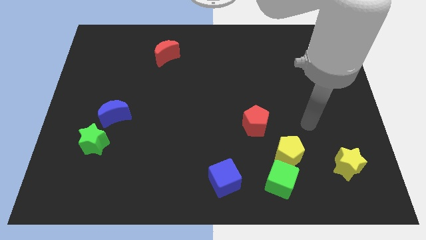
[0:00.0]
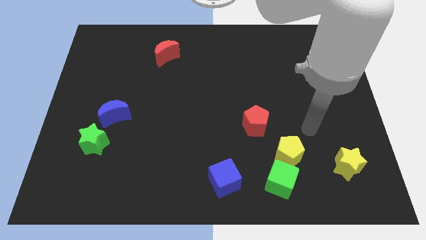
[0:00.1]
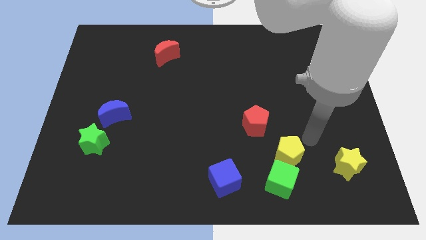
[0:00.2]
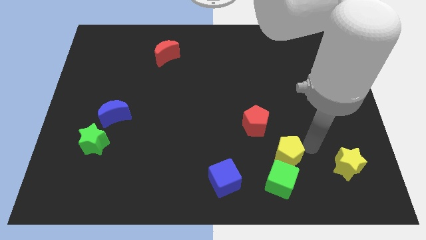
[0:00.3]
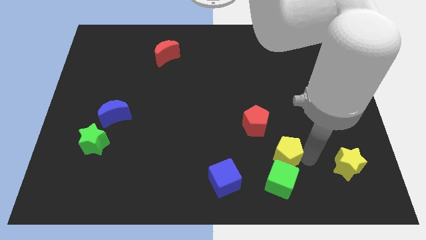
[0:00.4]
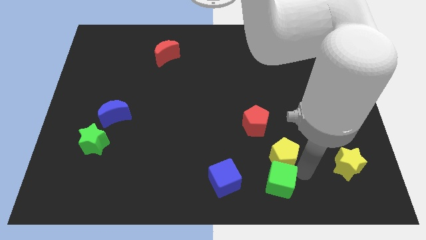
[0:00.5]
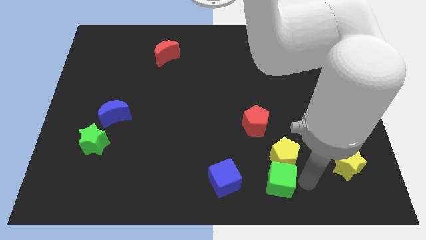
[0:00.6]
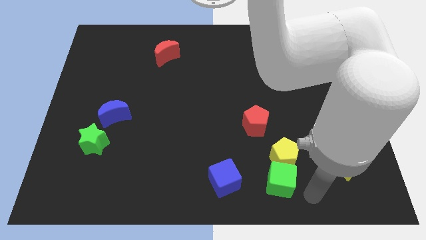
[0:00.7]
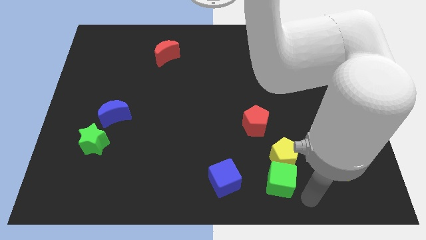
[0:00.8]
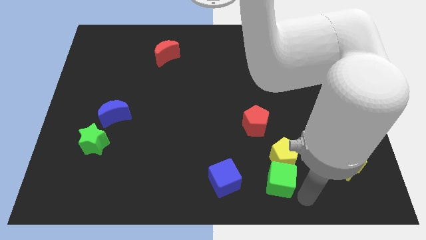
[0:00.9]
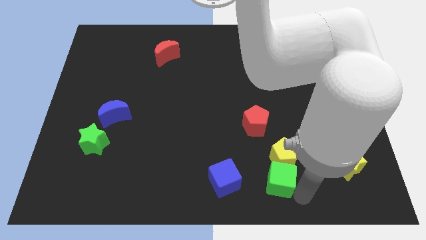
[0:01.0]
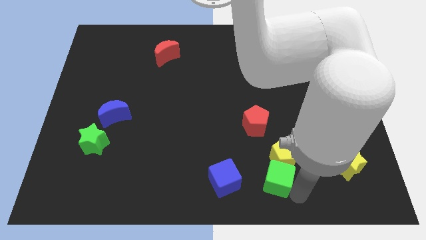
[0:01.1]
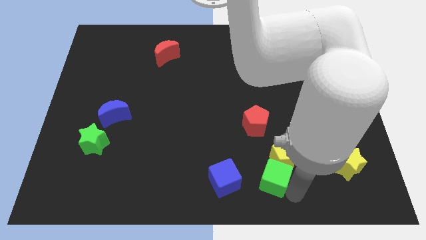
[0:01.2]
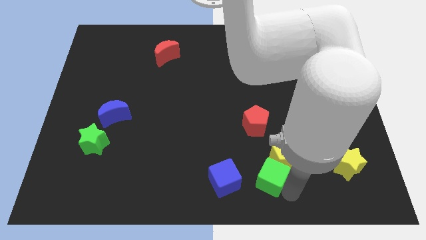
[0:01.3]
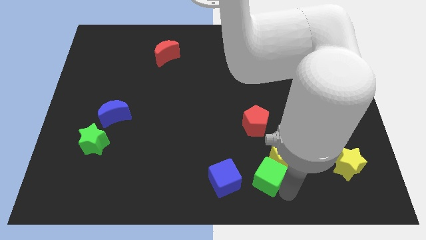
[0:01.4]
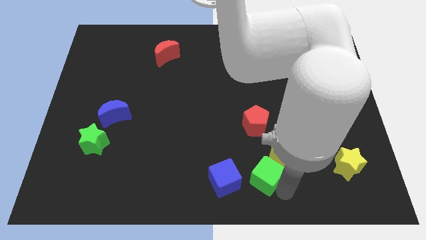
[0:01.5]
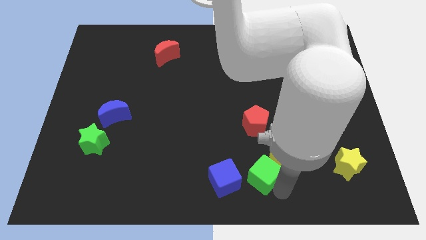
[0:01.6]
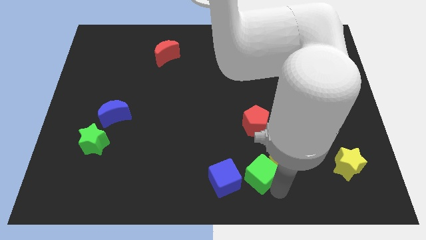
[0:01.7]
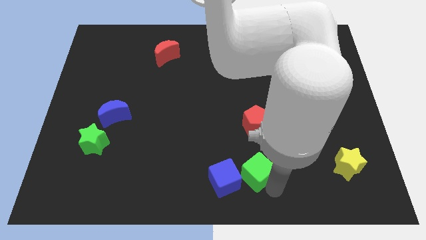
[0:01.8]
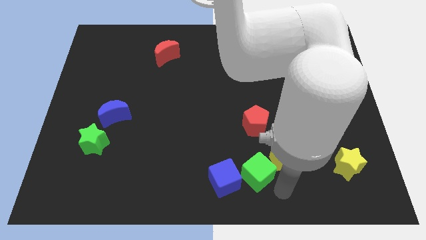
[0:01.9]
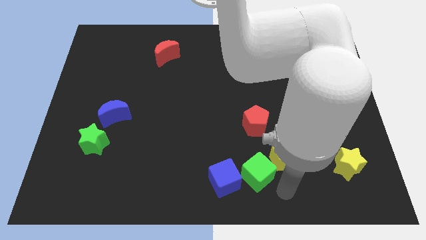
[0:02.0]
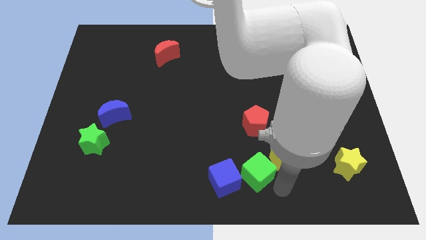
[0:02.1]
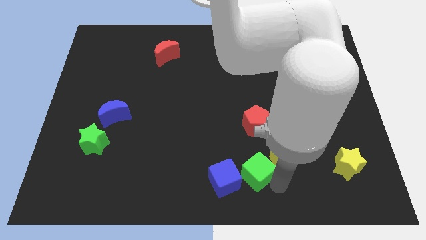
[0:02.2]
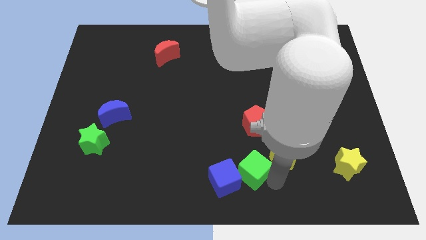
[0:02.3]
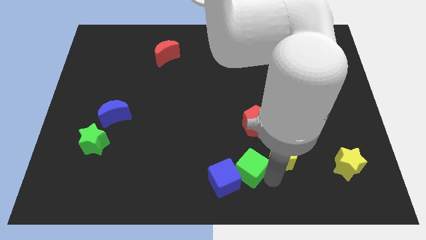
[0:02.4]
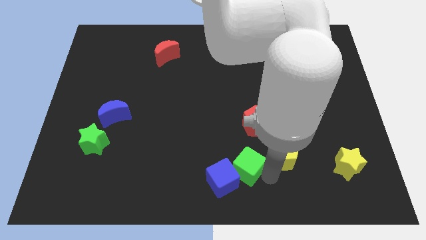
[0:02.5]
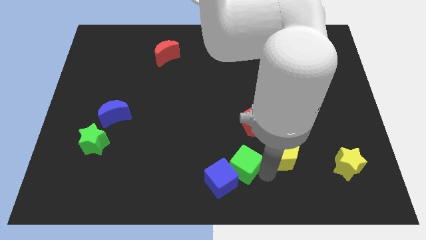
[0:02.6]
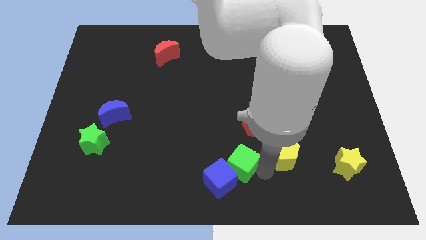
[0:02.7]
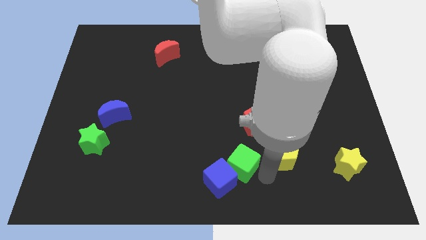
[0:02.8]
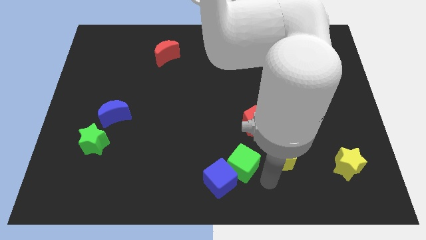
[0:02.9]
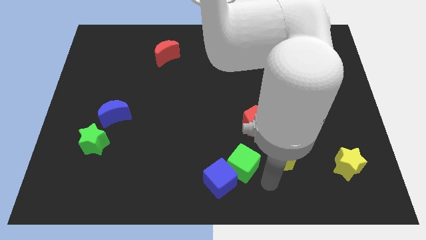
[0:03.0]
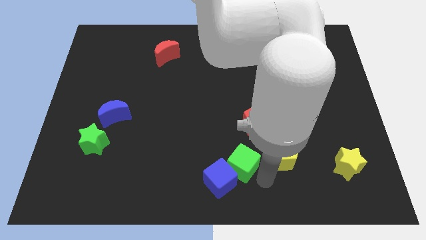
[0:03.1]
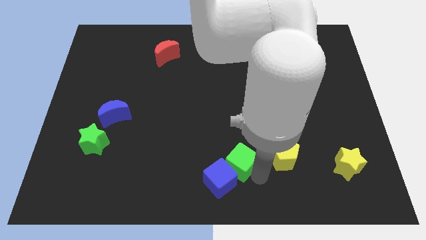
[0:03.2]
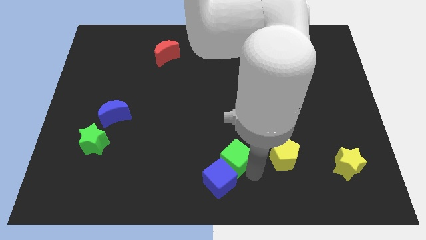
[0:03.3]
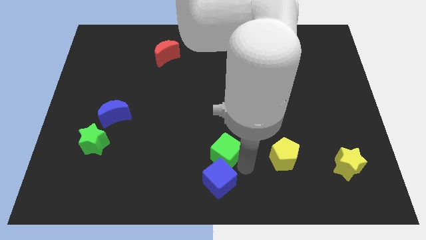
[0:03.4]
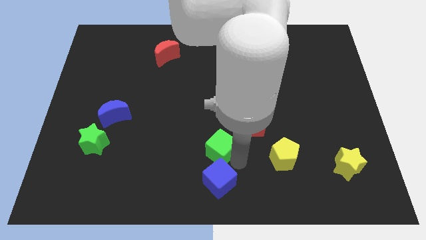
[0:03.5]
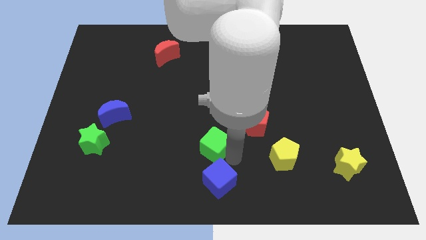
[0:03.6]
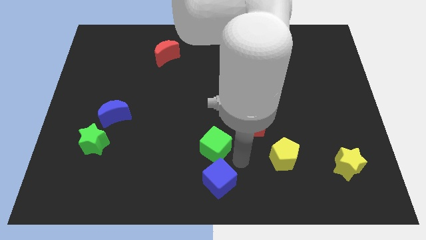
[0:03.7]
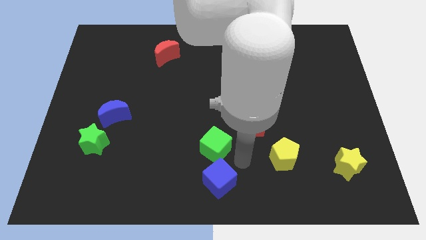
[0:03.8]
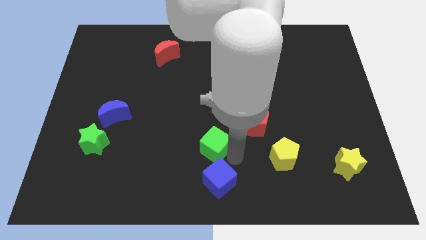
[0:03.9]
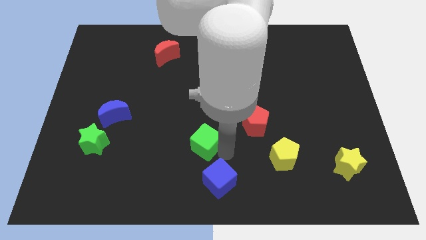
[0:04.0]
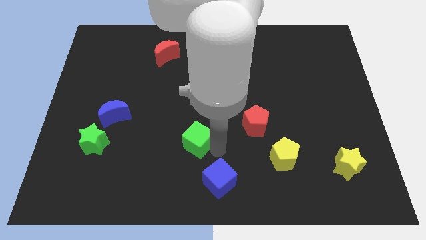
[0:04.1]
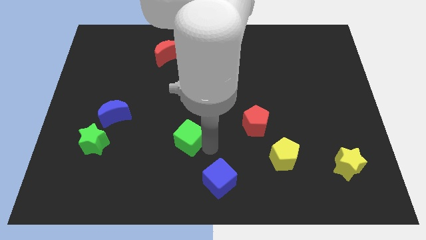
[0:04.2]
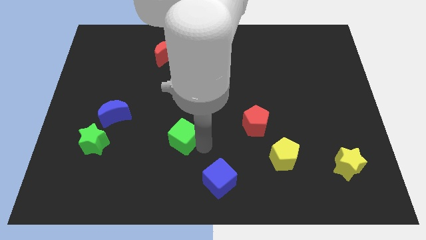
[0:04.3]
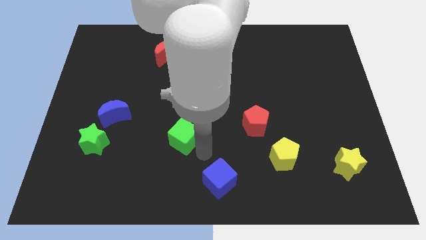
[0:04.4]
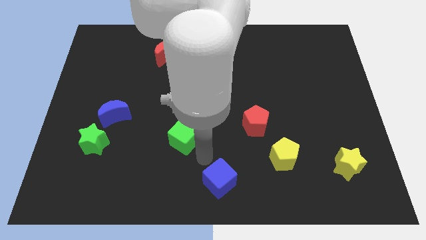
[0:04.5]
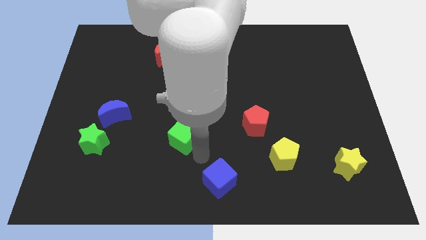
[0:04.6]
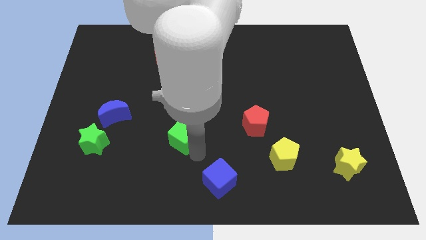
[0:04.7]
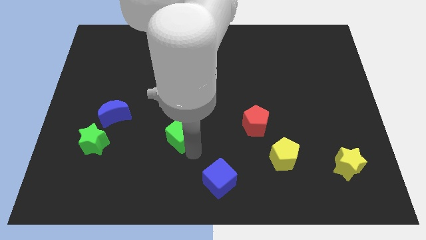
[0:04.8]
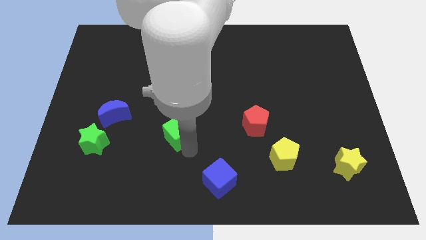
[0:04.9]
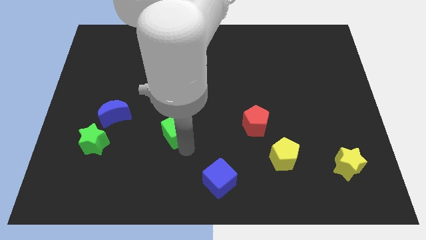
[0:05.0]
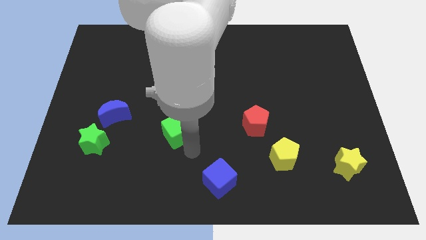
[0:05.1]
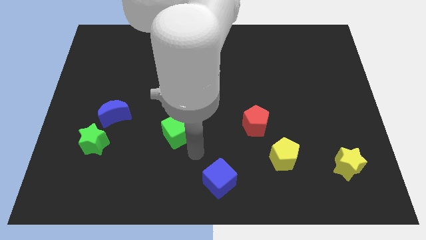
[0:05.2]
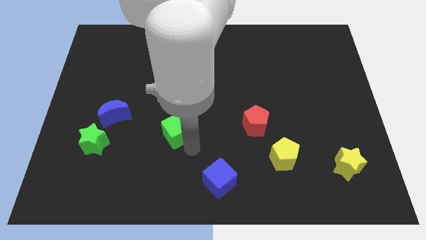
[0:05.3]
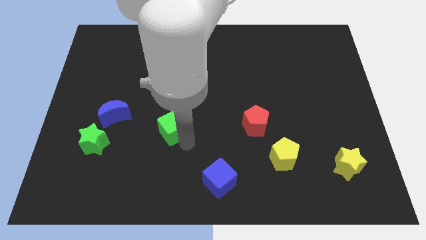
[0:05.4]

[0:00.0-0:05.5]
put the green cube just right of the blue moon

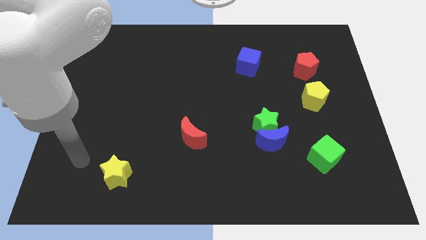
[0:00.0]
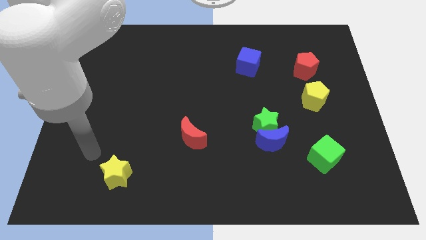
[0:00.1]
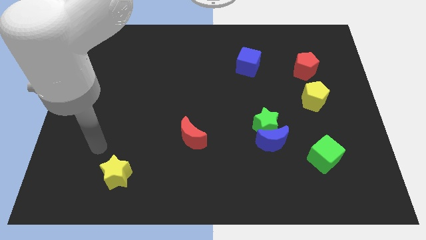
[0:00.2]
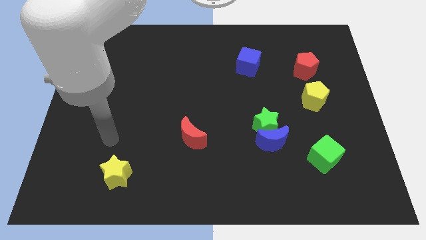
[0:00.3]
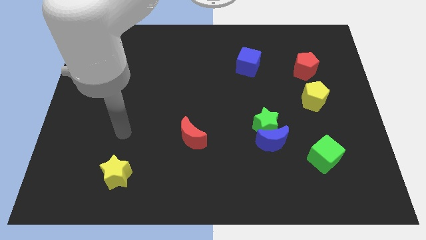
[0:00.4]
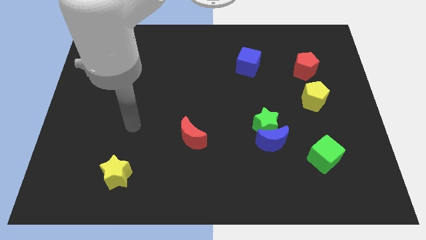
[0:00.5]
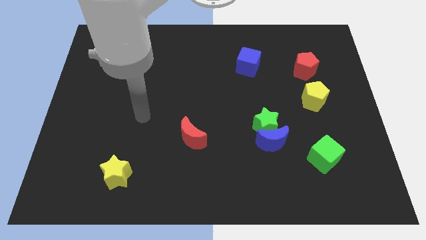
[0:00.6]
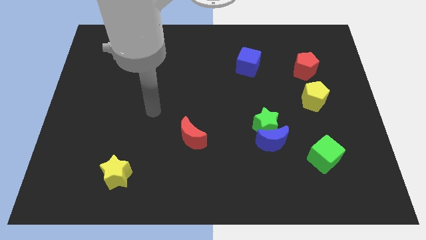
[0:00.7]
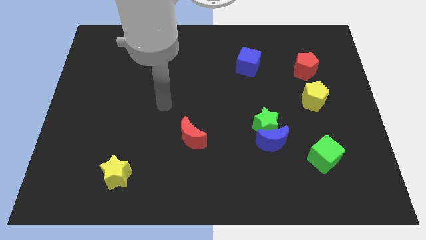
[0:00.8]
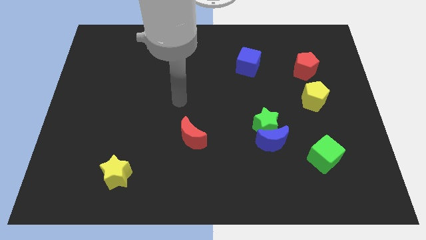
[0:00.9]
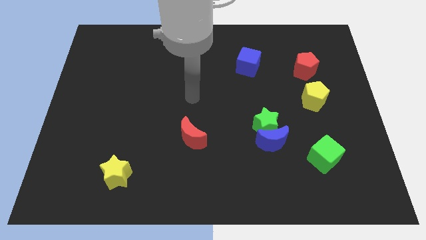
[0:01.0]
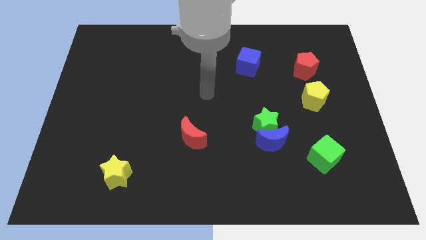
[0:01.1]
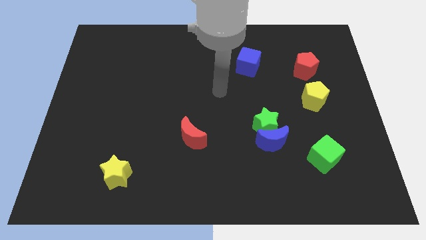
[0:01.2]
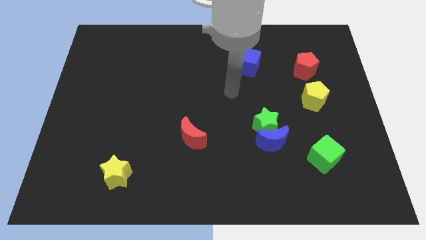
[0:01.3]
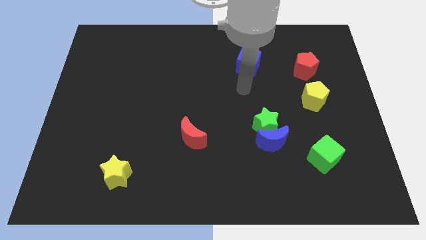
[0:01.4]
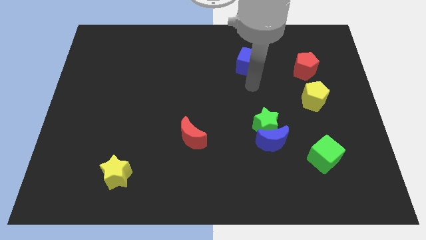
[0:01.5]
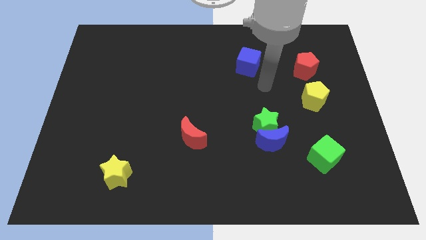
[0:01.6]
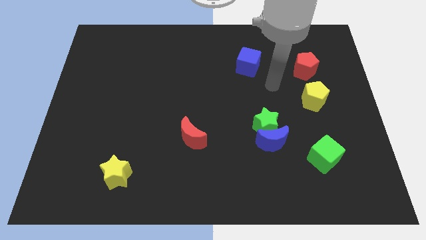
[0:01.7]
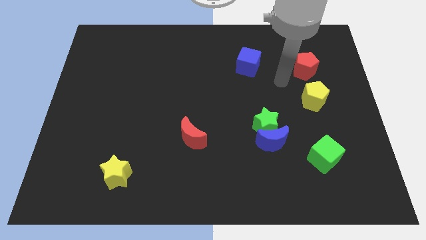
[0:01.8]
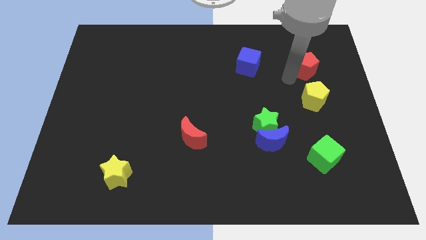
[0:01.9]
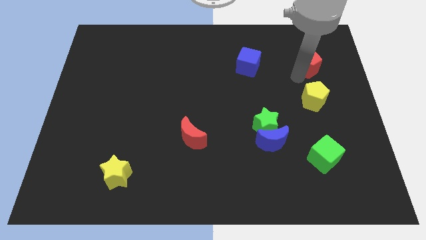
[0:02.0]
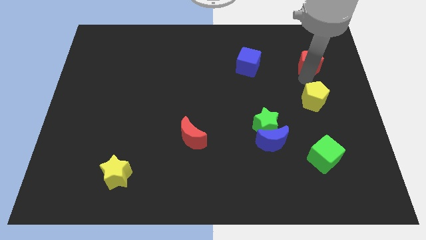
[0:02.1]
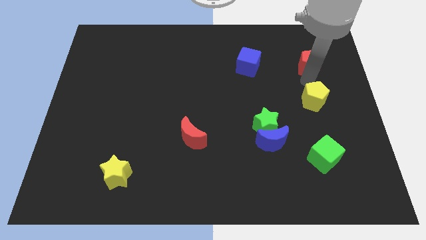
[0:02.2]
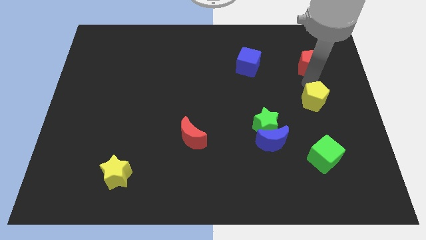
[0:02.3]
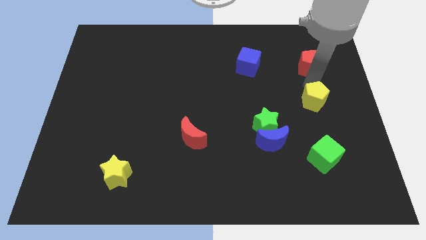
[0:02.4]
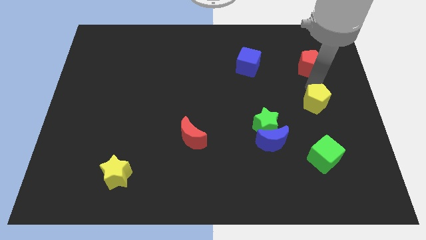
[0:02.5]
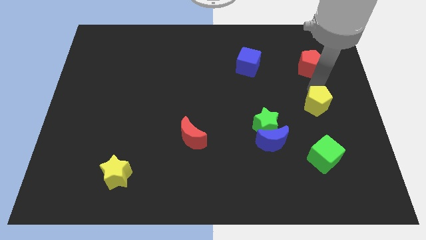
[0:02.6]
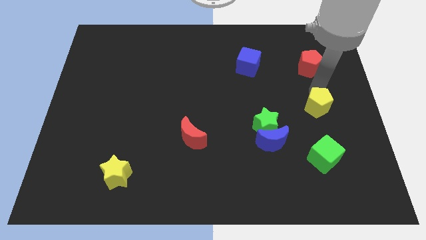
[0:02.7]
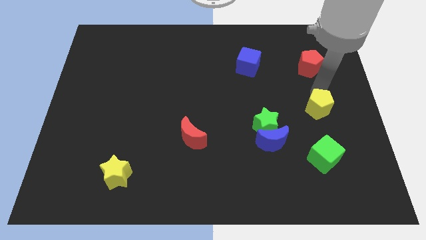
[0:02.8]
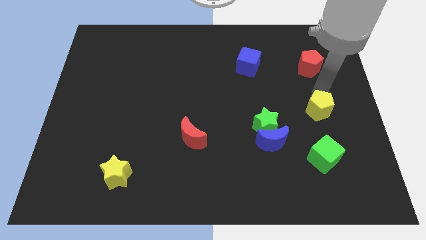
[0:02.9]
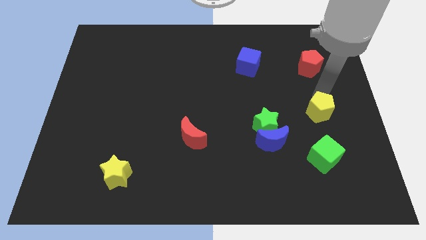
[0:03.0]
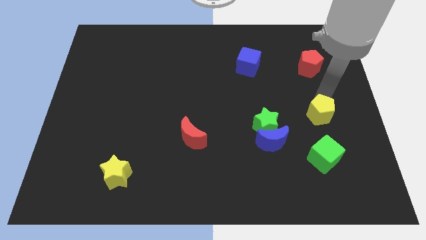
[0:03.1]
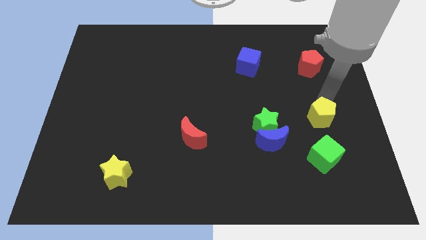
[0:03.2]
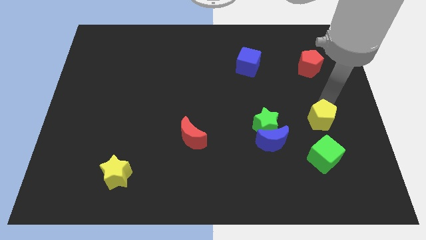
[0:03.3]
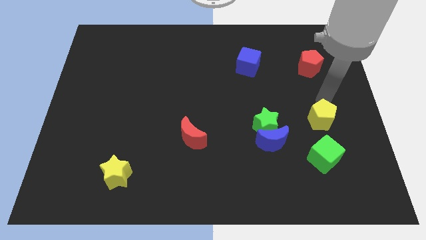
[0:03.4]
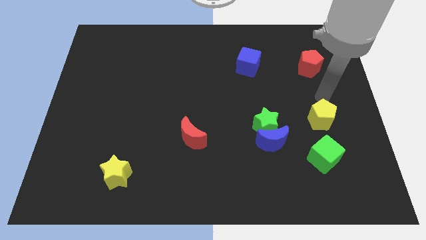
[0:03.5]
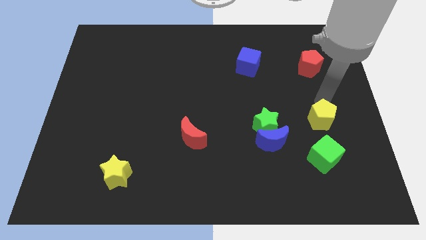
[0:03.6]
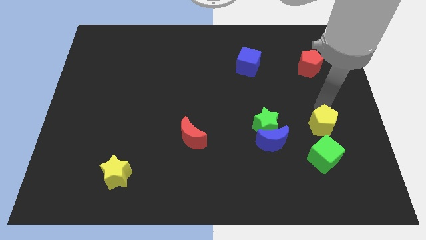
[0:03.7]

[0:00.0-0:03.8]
push the yellow pentagon right of the blue moon
